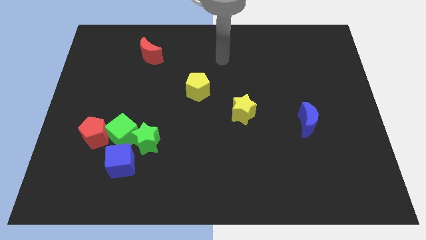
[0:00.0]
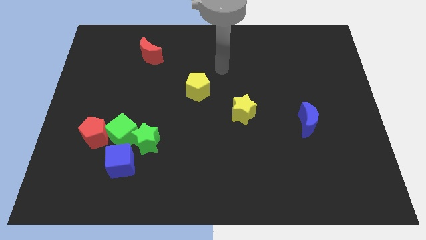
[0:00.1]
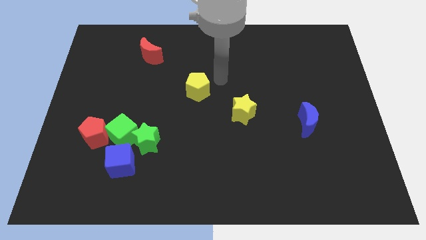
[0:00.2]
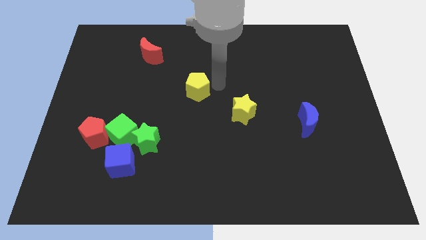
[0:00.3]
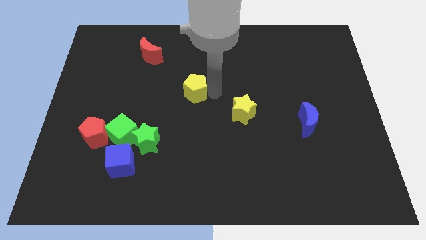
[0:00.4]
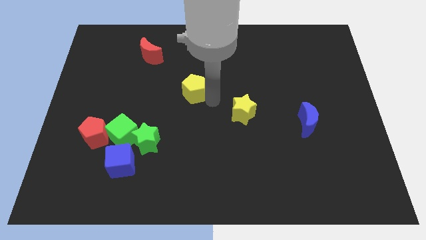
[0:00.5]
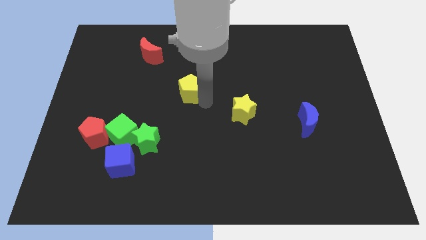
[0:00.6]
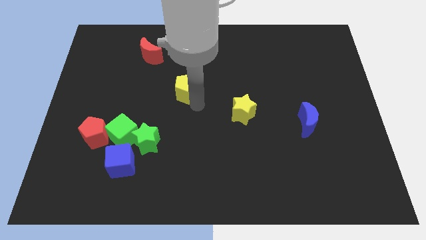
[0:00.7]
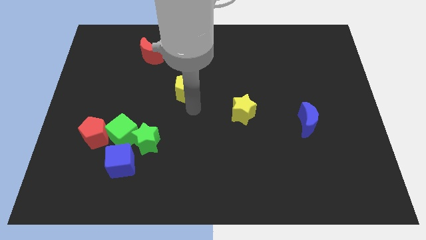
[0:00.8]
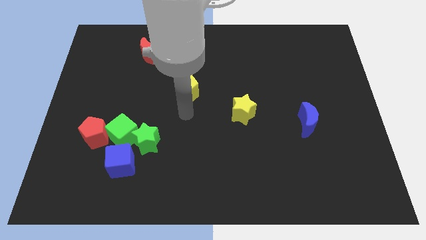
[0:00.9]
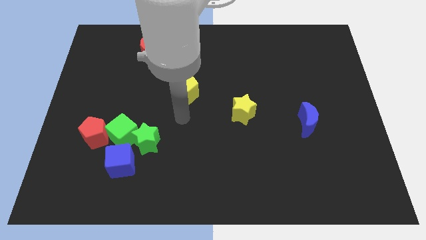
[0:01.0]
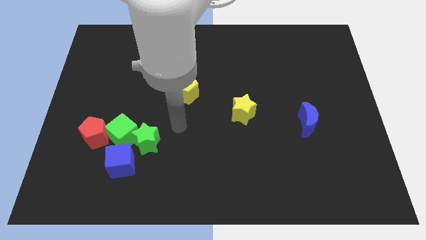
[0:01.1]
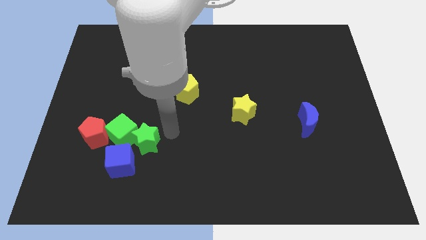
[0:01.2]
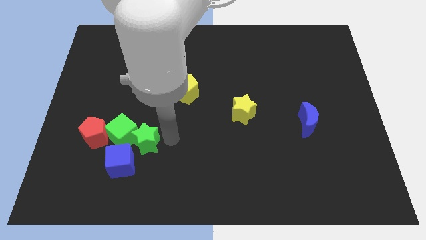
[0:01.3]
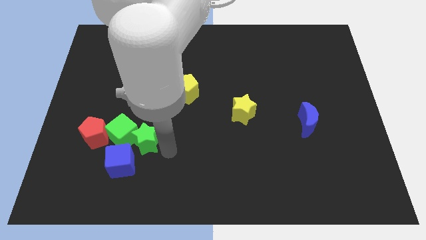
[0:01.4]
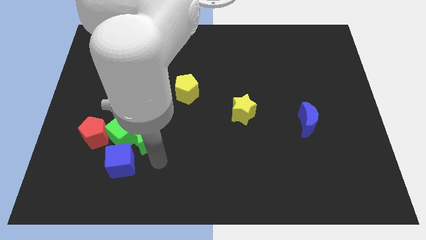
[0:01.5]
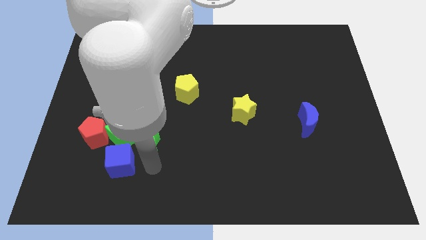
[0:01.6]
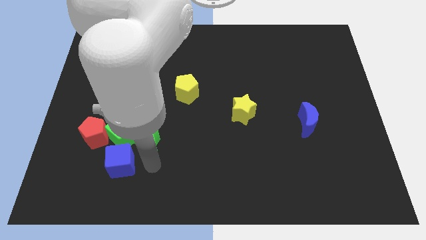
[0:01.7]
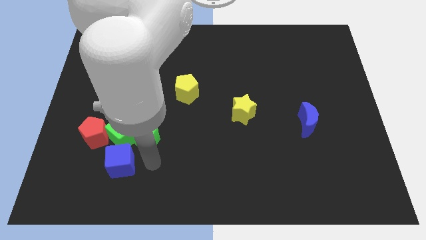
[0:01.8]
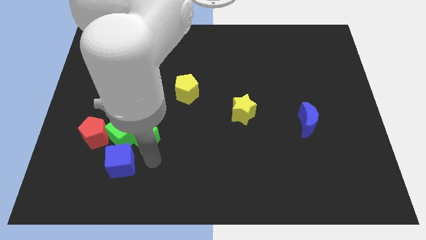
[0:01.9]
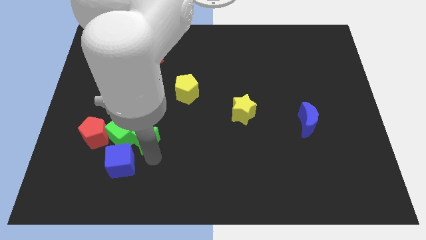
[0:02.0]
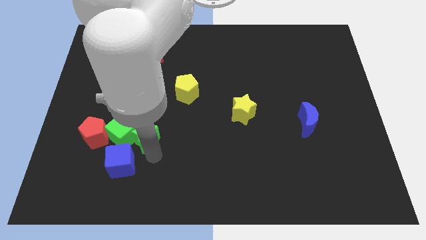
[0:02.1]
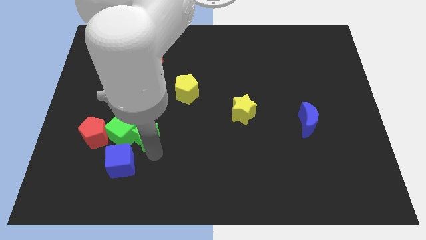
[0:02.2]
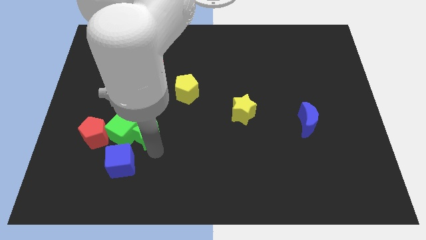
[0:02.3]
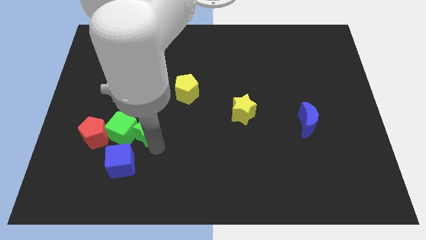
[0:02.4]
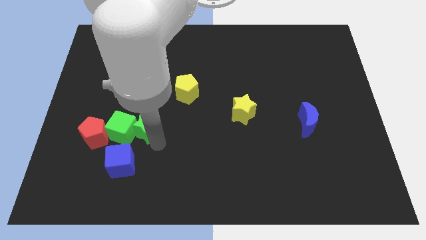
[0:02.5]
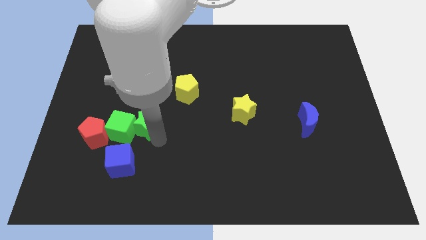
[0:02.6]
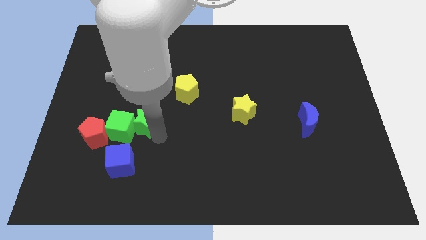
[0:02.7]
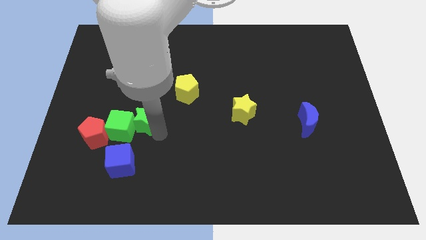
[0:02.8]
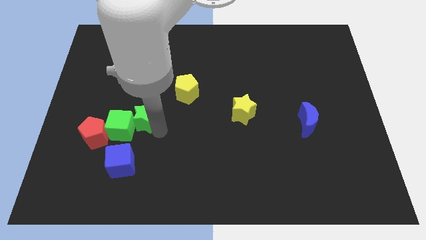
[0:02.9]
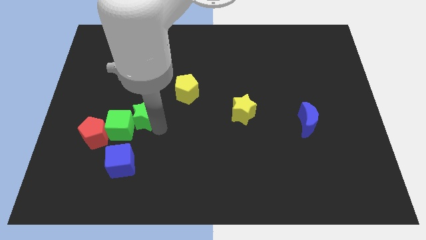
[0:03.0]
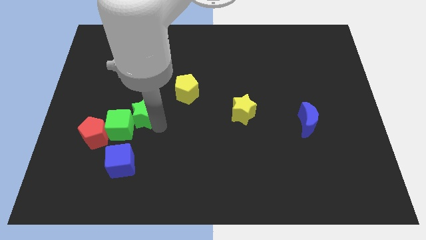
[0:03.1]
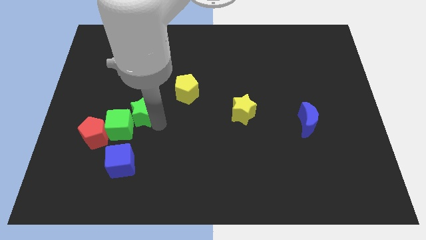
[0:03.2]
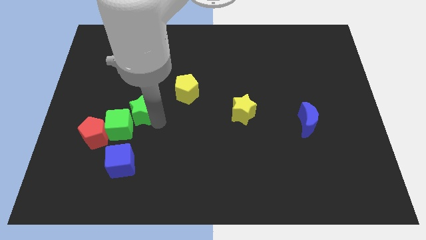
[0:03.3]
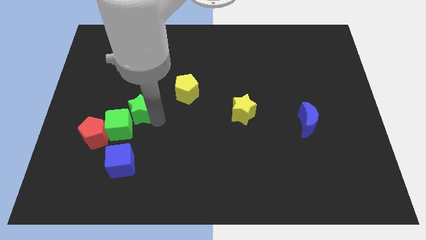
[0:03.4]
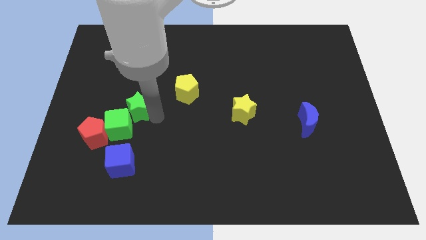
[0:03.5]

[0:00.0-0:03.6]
push the green star up and left diagonally a bit

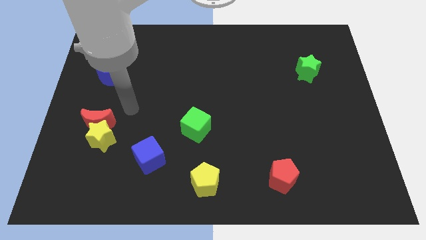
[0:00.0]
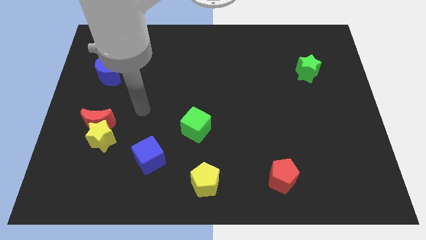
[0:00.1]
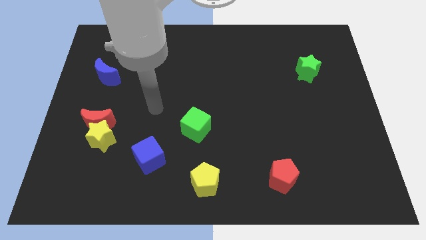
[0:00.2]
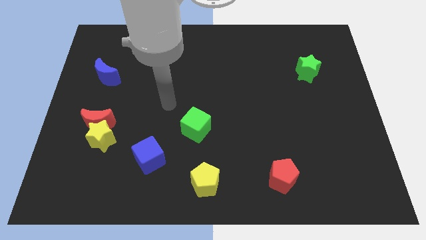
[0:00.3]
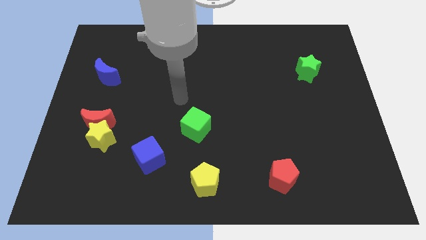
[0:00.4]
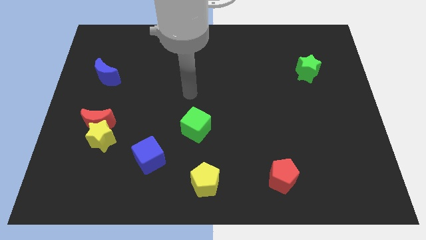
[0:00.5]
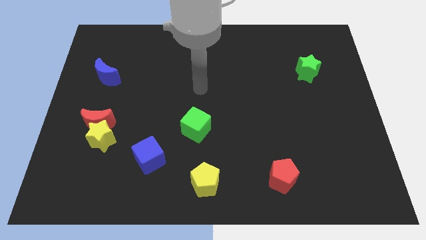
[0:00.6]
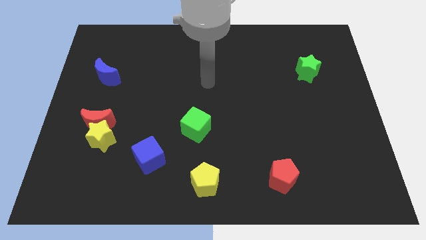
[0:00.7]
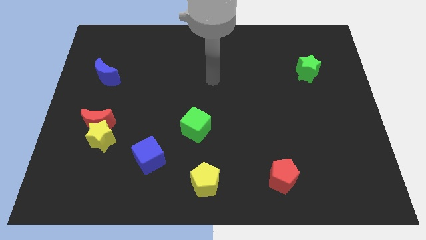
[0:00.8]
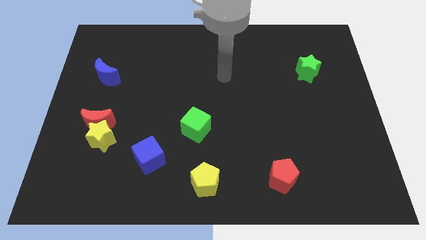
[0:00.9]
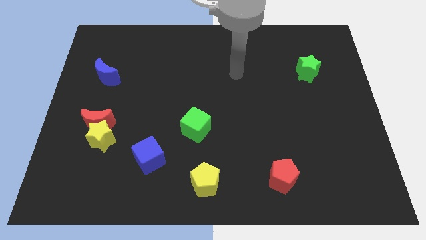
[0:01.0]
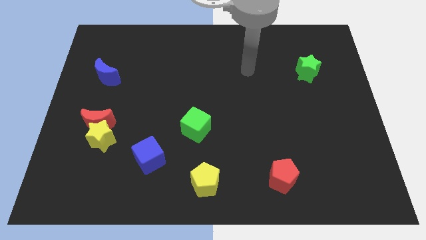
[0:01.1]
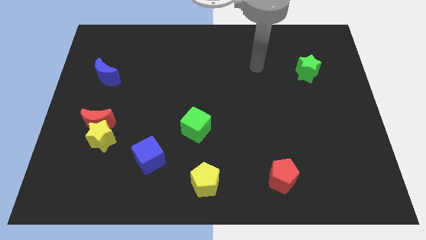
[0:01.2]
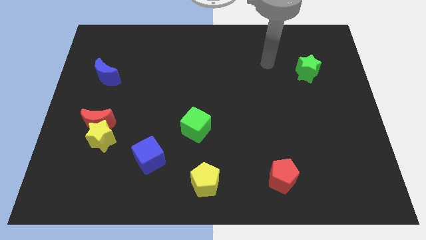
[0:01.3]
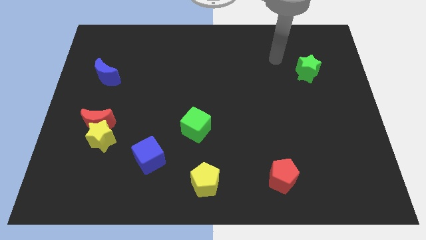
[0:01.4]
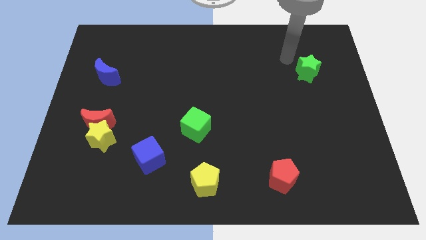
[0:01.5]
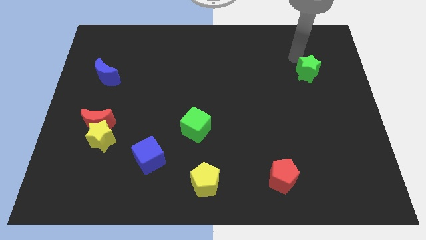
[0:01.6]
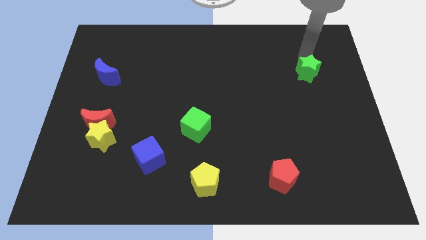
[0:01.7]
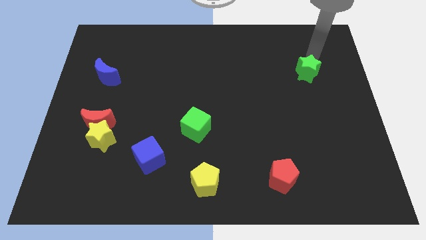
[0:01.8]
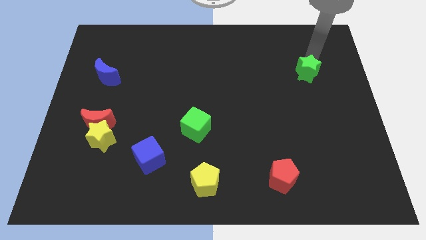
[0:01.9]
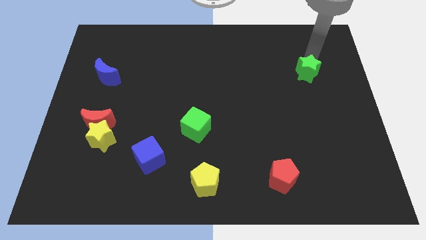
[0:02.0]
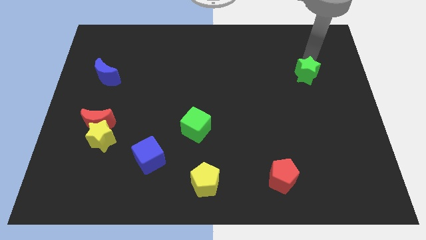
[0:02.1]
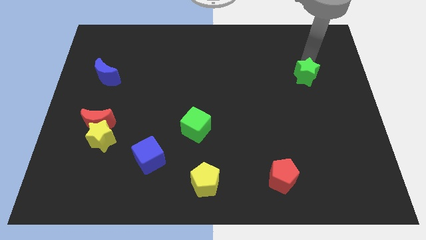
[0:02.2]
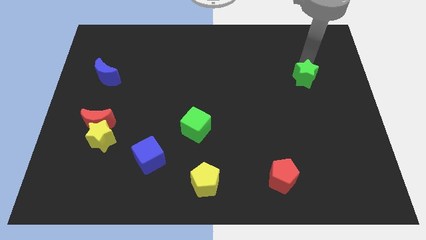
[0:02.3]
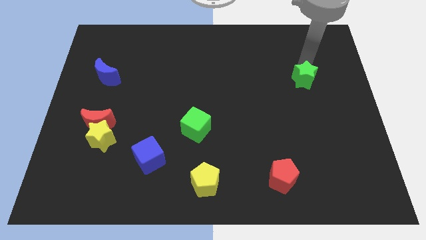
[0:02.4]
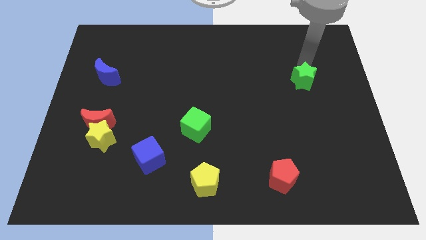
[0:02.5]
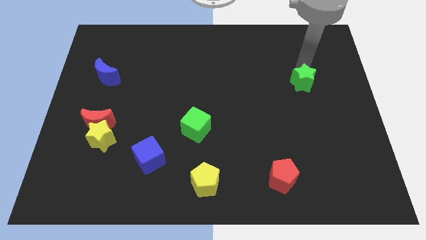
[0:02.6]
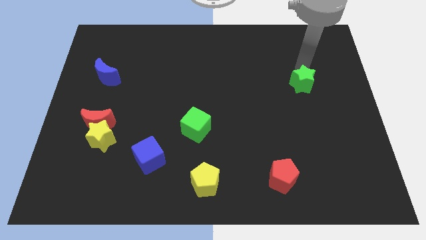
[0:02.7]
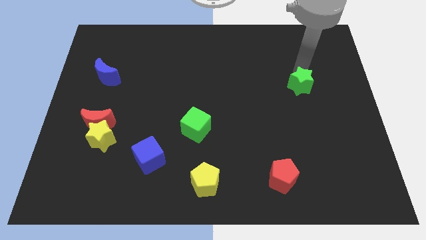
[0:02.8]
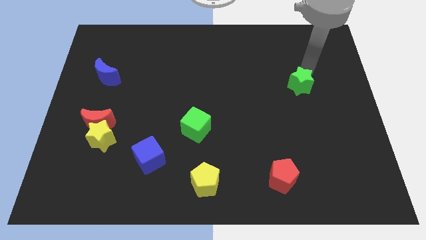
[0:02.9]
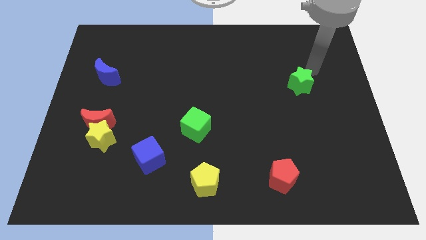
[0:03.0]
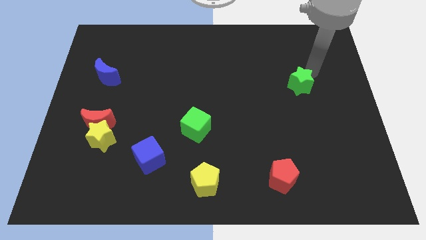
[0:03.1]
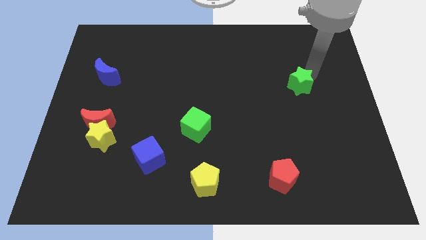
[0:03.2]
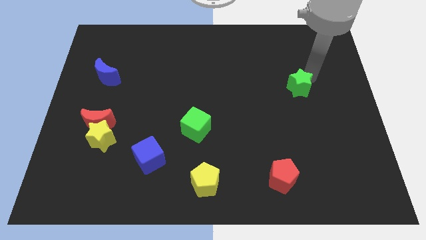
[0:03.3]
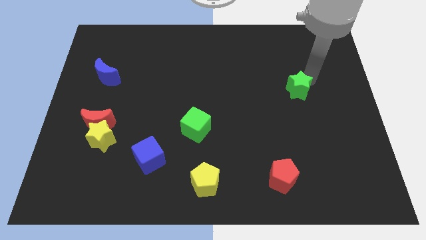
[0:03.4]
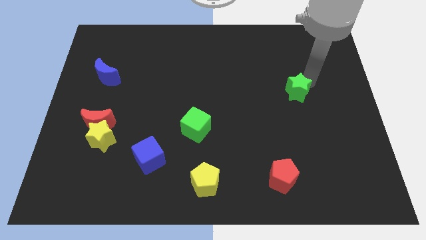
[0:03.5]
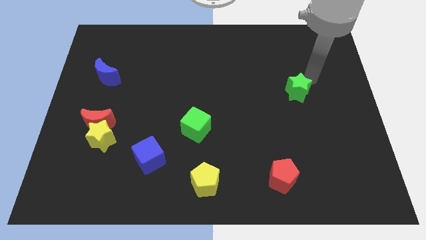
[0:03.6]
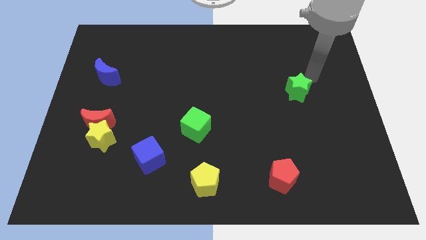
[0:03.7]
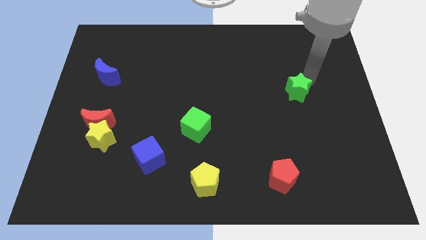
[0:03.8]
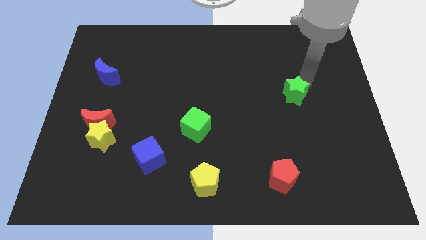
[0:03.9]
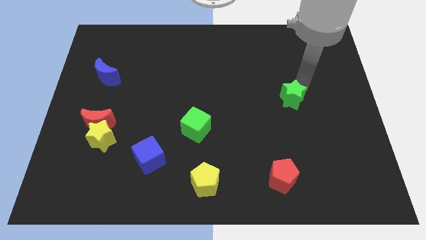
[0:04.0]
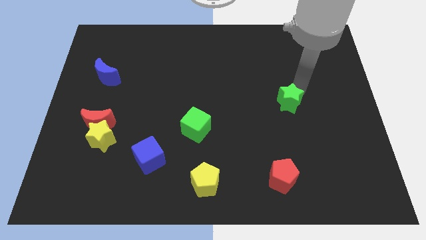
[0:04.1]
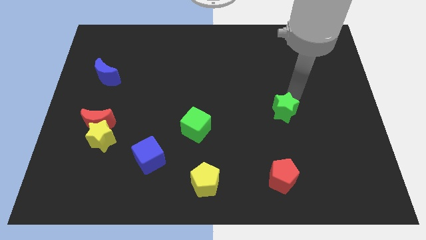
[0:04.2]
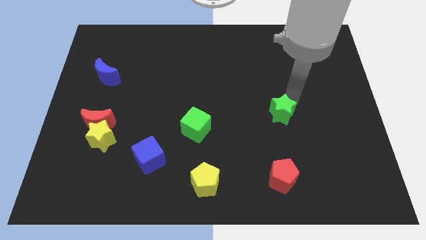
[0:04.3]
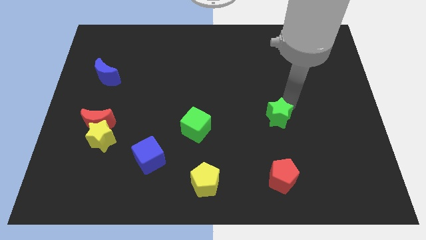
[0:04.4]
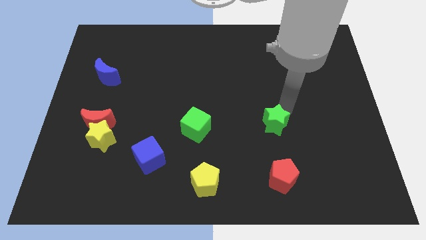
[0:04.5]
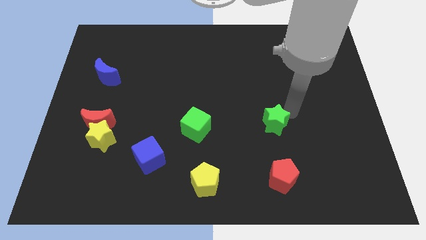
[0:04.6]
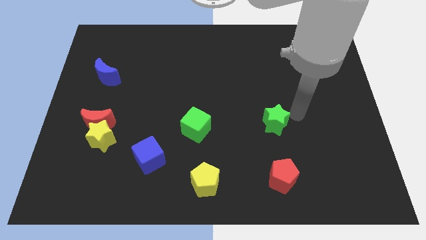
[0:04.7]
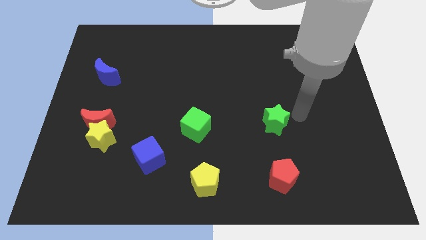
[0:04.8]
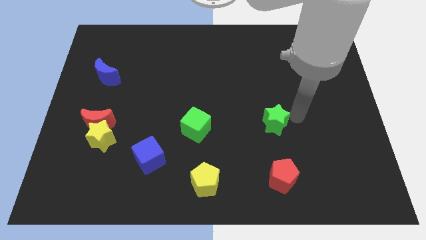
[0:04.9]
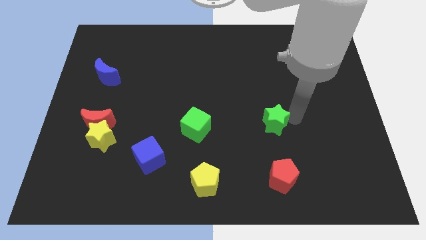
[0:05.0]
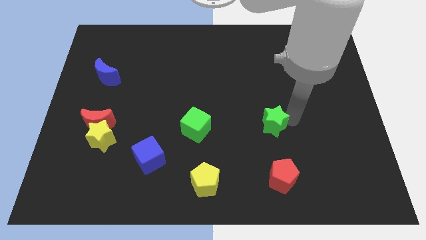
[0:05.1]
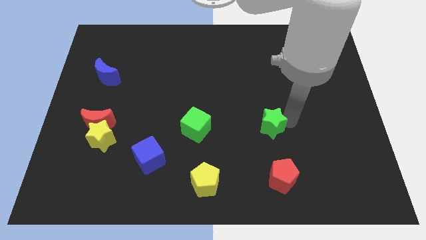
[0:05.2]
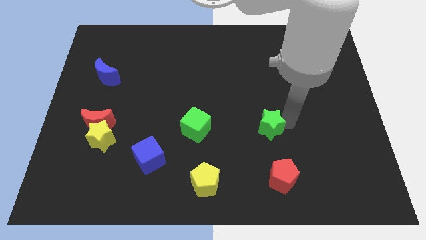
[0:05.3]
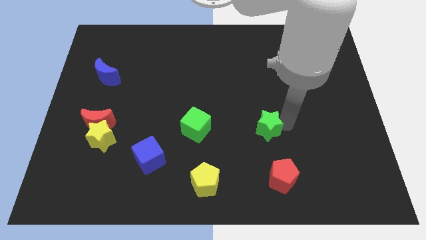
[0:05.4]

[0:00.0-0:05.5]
push the green star downwards and to the left diagonally
